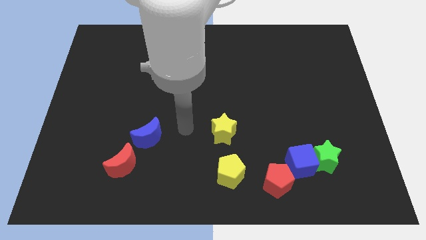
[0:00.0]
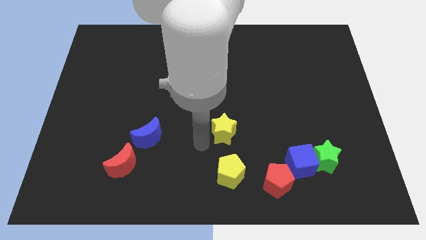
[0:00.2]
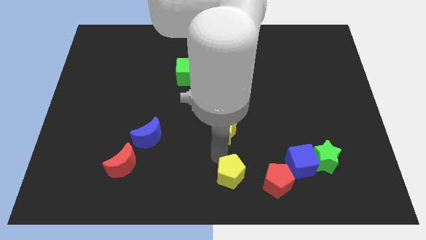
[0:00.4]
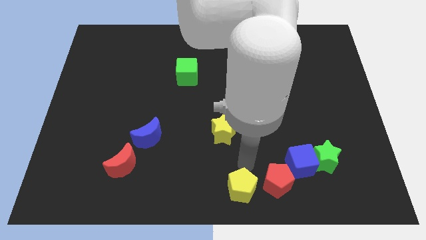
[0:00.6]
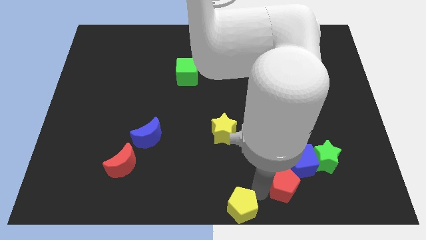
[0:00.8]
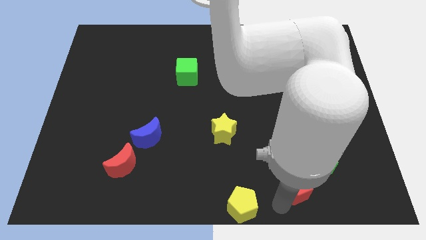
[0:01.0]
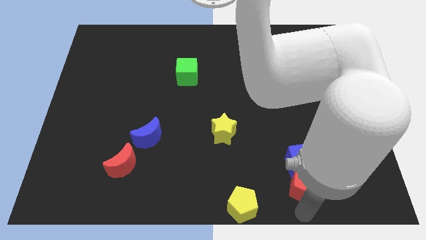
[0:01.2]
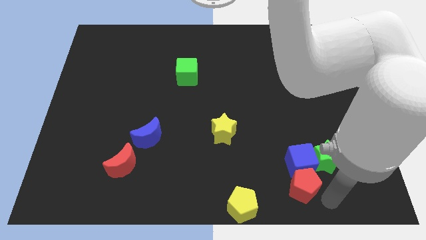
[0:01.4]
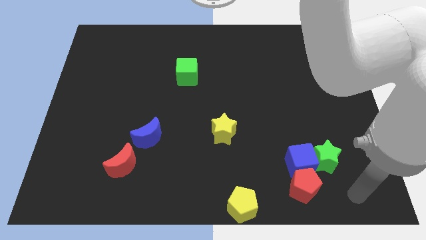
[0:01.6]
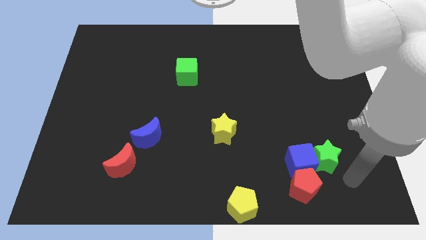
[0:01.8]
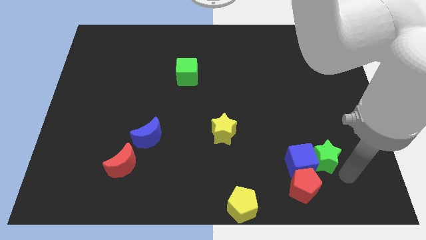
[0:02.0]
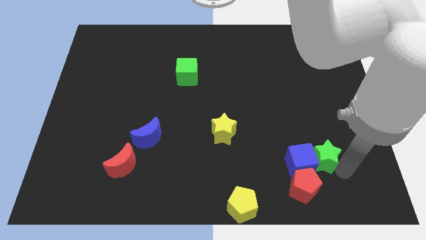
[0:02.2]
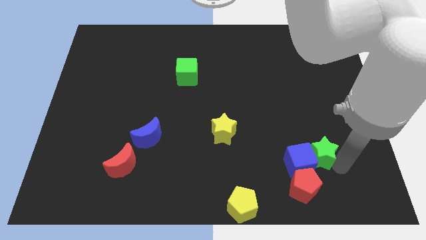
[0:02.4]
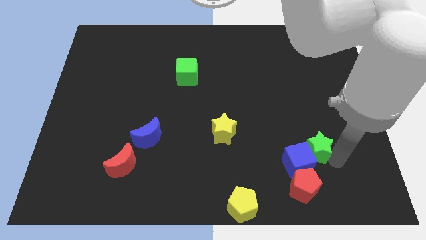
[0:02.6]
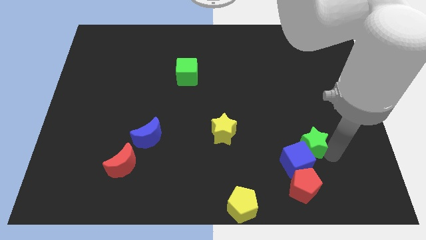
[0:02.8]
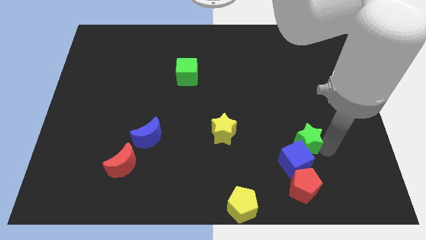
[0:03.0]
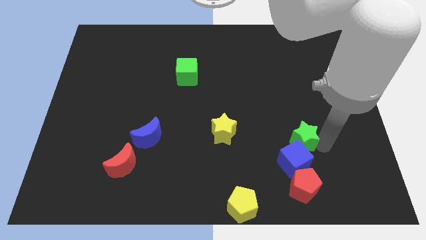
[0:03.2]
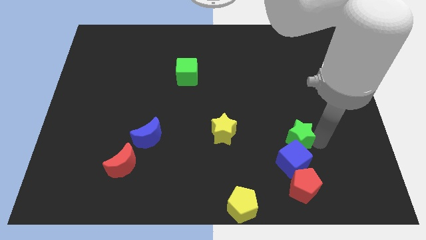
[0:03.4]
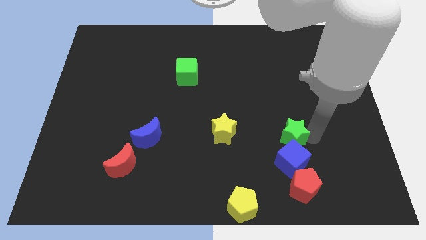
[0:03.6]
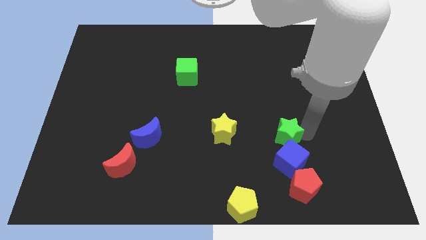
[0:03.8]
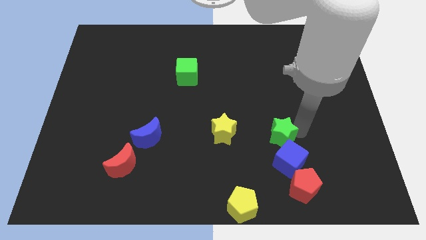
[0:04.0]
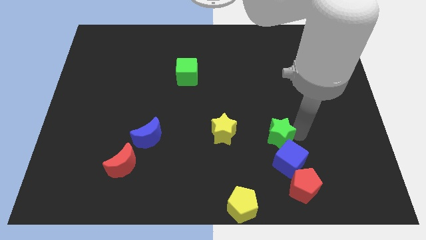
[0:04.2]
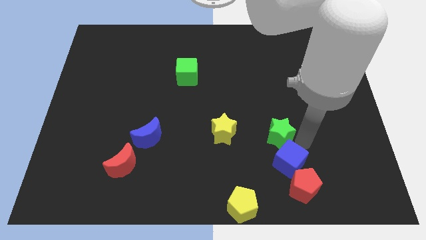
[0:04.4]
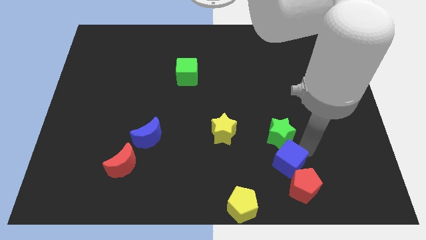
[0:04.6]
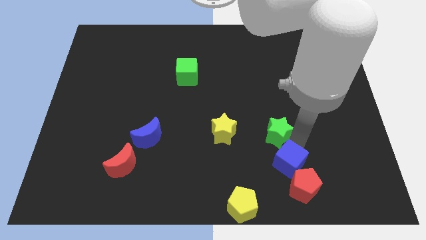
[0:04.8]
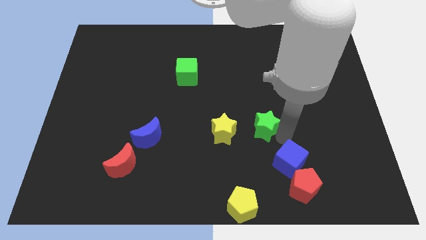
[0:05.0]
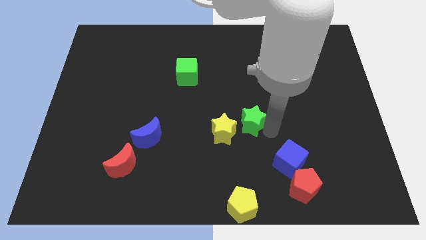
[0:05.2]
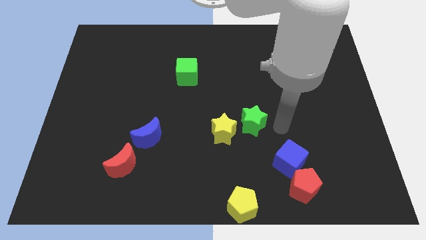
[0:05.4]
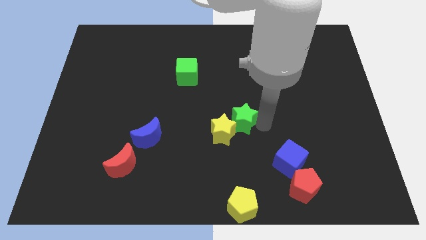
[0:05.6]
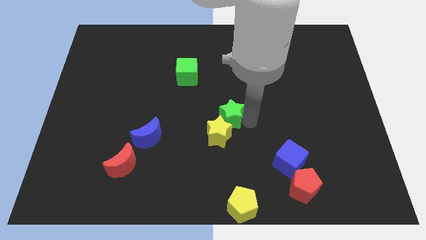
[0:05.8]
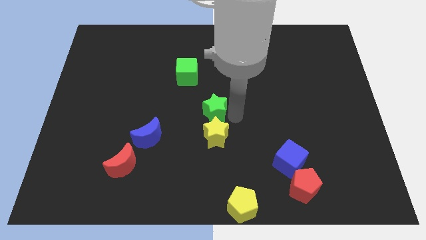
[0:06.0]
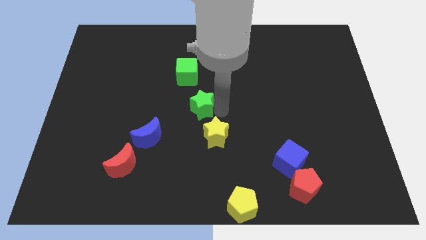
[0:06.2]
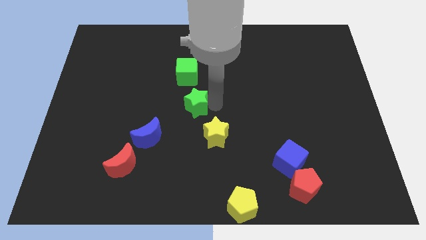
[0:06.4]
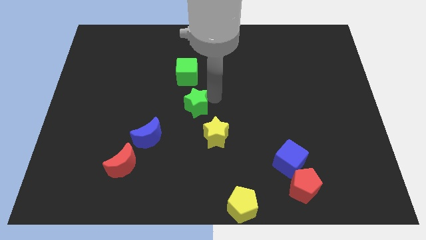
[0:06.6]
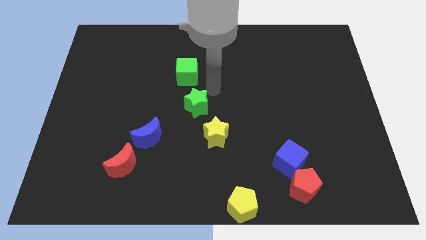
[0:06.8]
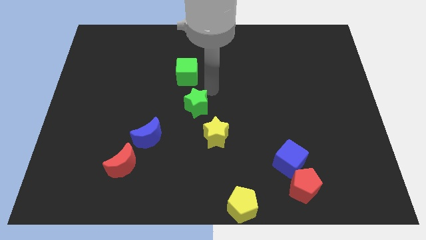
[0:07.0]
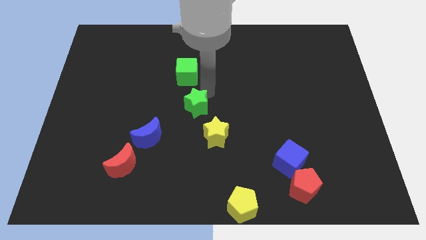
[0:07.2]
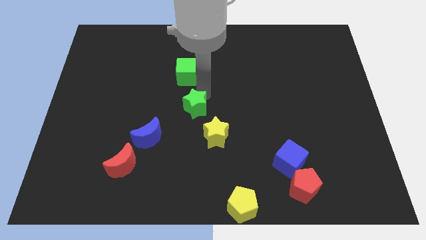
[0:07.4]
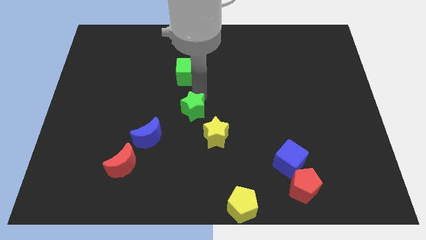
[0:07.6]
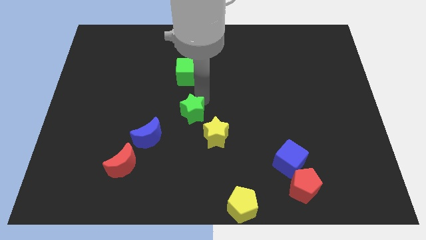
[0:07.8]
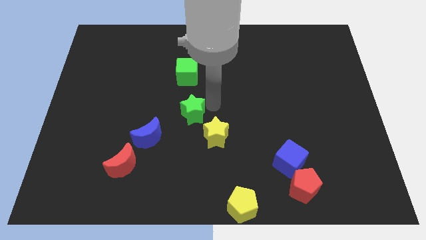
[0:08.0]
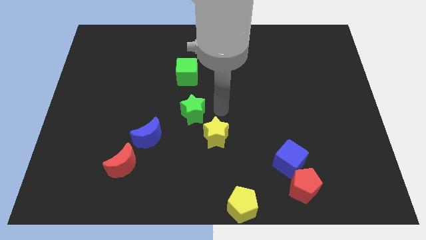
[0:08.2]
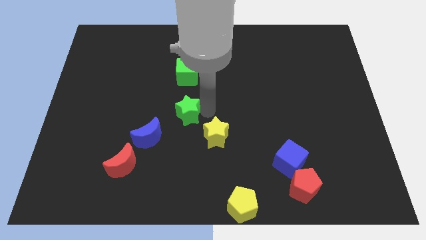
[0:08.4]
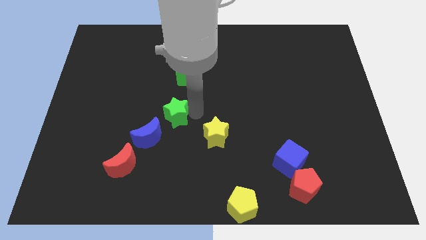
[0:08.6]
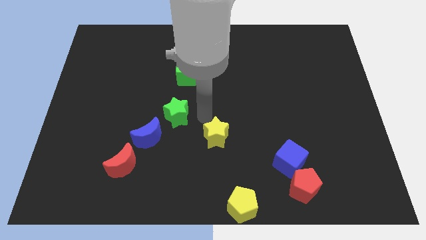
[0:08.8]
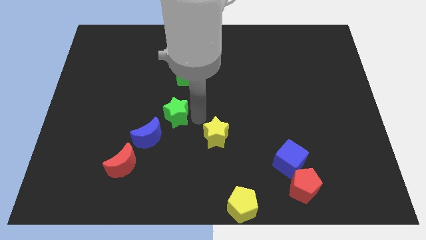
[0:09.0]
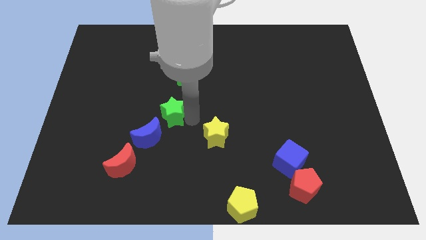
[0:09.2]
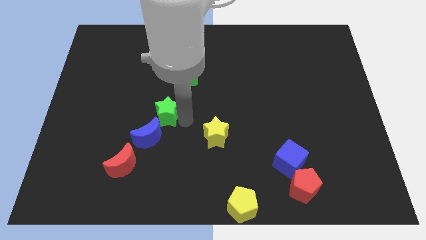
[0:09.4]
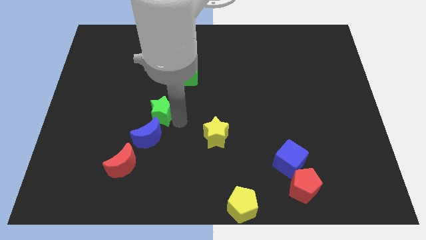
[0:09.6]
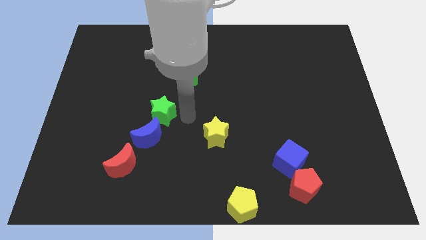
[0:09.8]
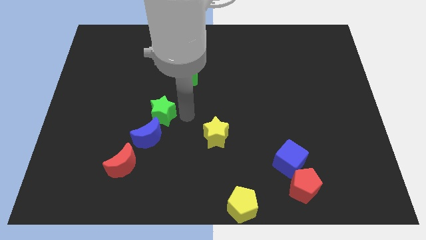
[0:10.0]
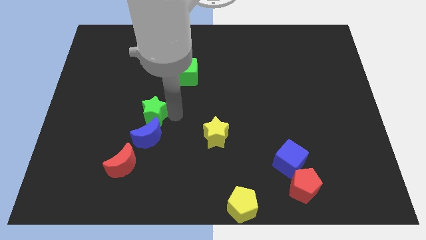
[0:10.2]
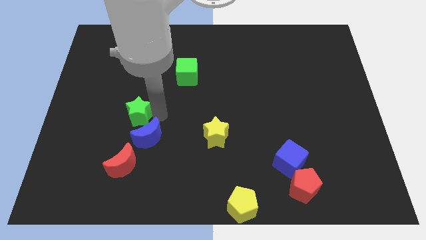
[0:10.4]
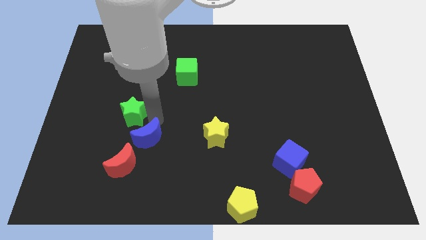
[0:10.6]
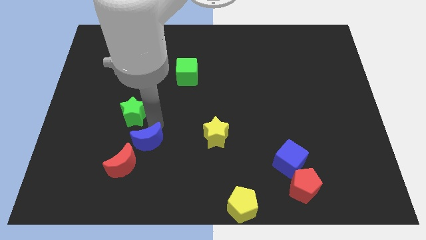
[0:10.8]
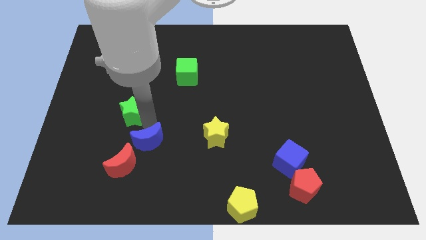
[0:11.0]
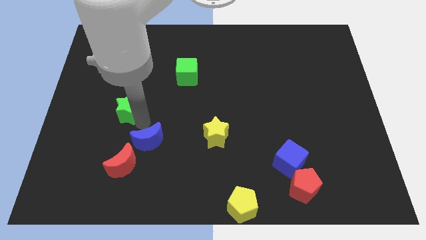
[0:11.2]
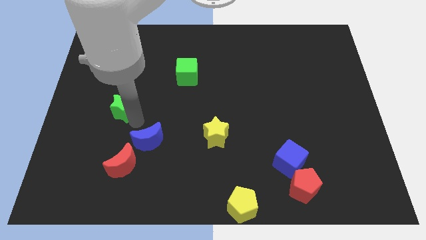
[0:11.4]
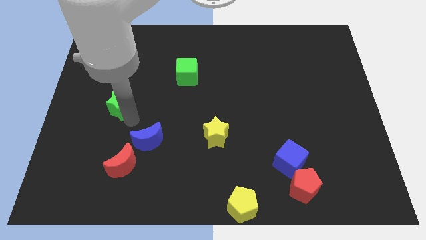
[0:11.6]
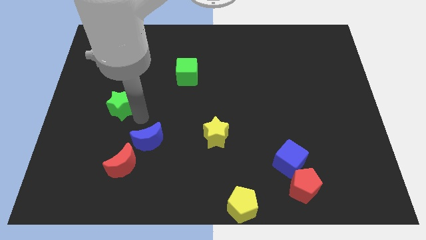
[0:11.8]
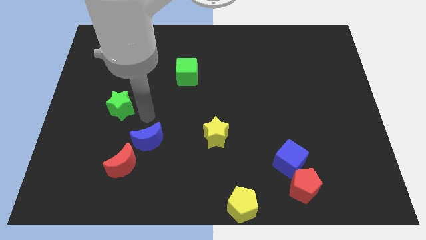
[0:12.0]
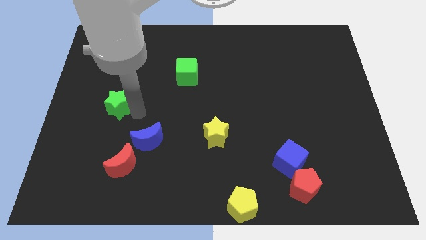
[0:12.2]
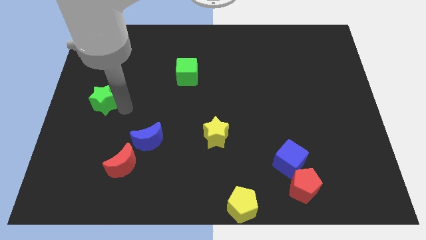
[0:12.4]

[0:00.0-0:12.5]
put the green star to the left side of the board

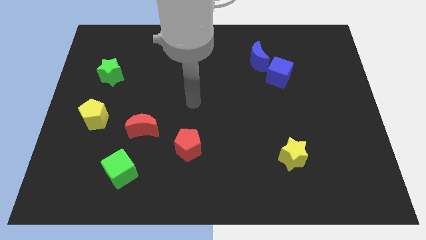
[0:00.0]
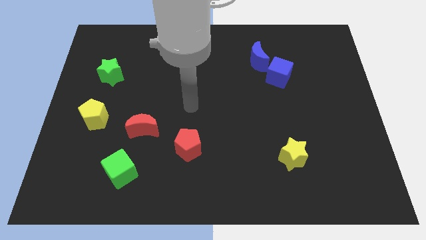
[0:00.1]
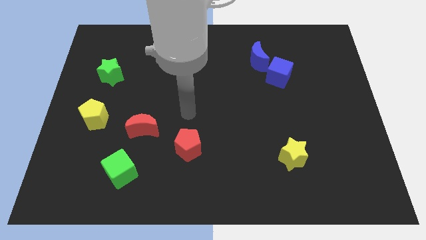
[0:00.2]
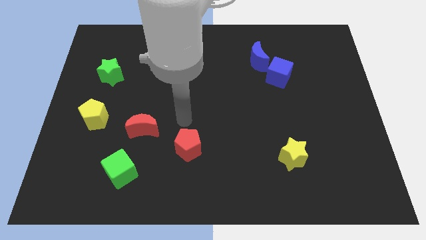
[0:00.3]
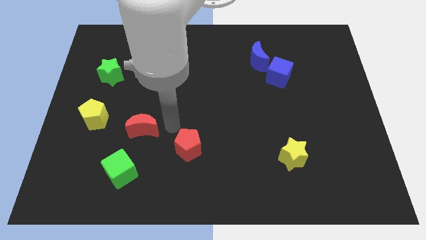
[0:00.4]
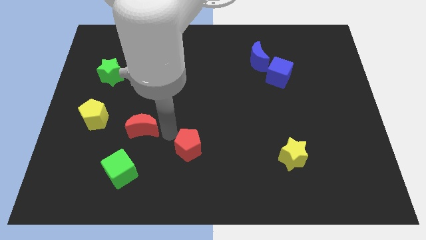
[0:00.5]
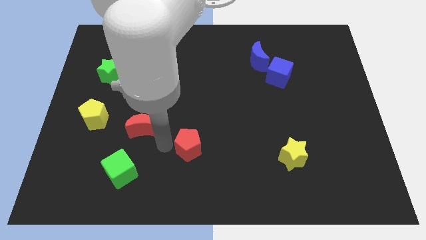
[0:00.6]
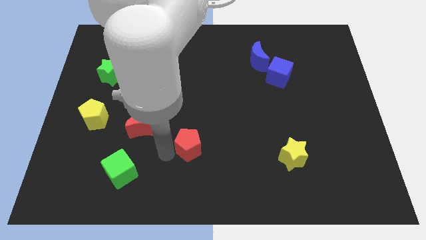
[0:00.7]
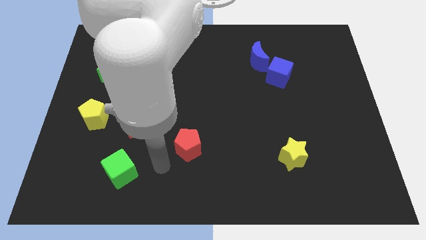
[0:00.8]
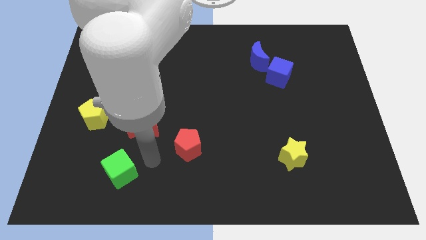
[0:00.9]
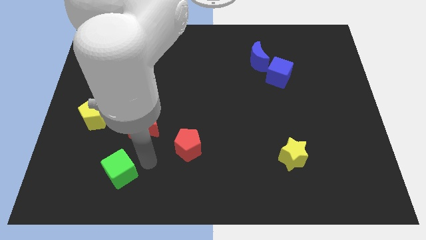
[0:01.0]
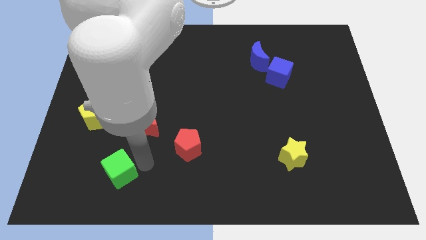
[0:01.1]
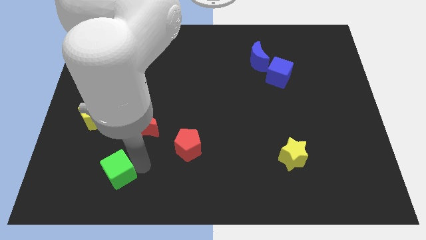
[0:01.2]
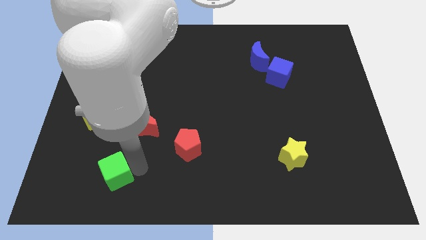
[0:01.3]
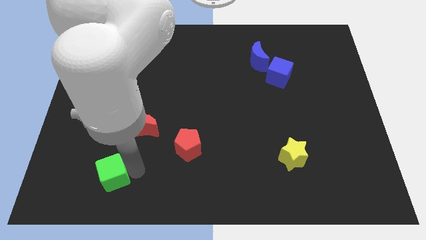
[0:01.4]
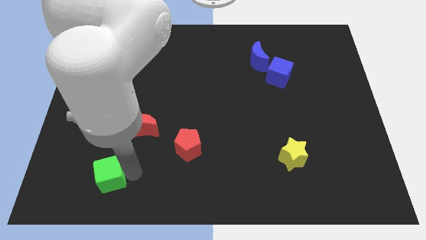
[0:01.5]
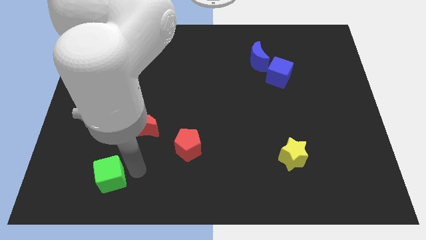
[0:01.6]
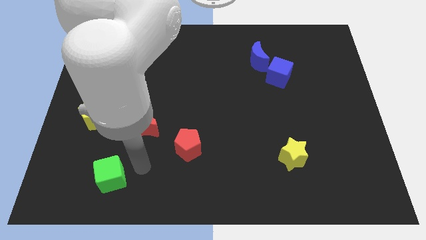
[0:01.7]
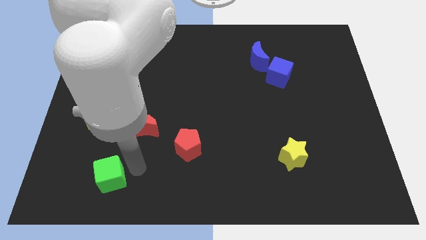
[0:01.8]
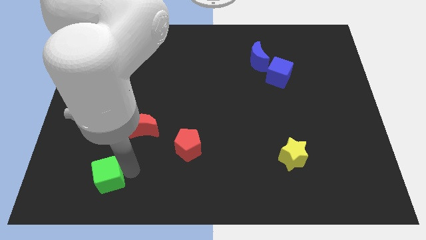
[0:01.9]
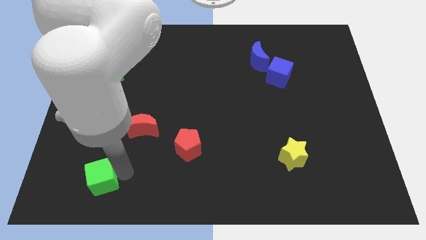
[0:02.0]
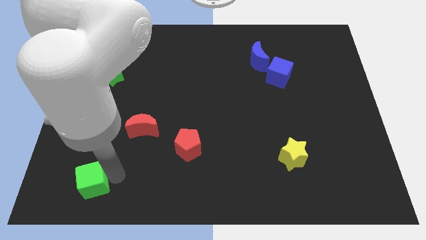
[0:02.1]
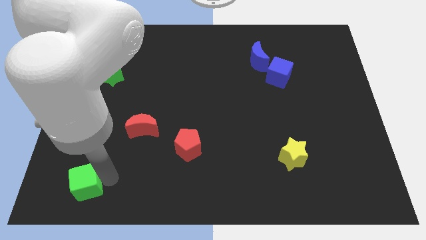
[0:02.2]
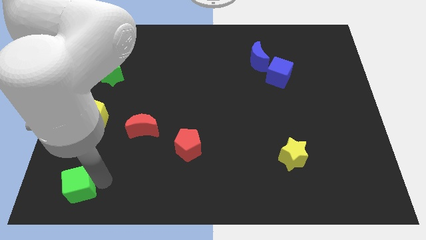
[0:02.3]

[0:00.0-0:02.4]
move the green cube to the bottom left
